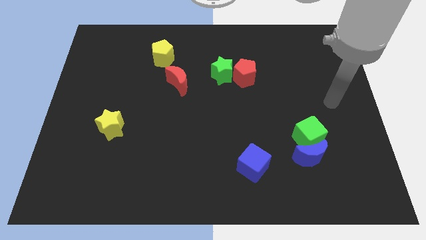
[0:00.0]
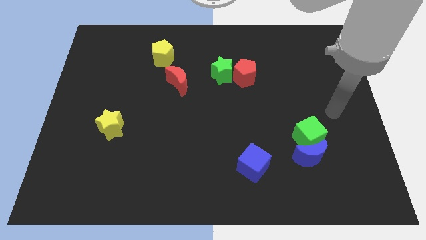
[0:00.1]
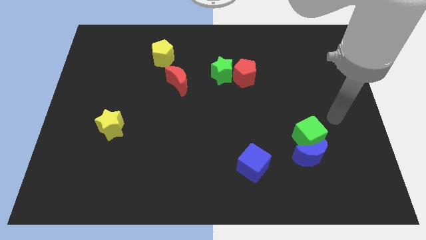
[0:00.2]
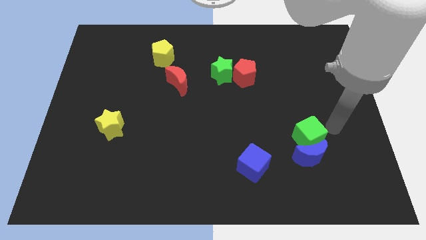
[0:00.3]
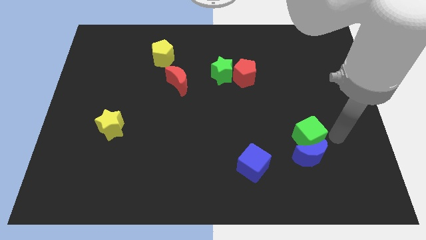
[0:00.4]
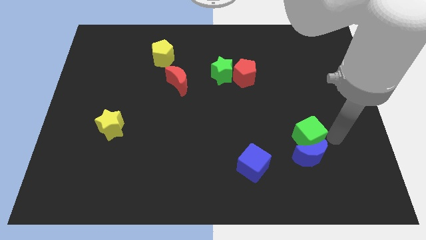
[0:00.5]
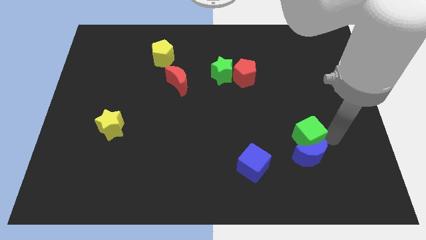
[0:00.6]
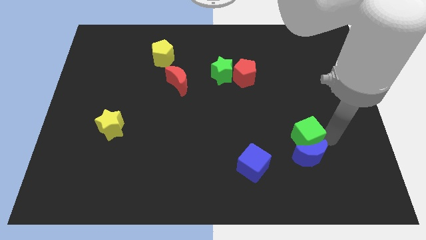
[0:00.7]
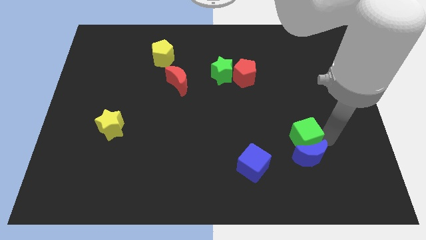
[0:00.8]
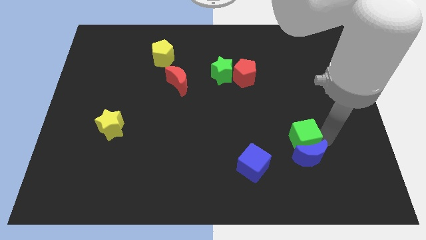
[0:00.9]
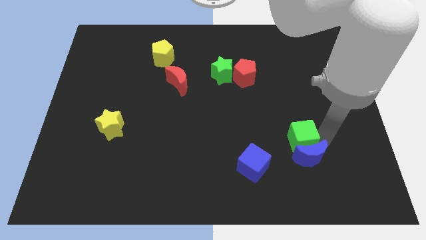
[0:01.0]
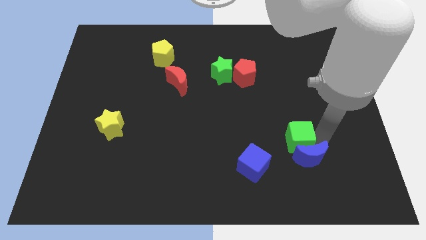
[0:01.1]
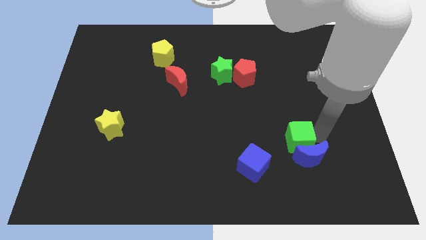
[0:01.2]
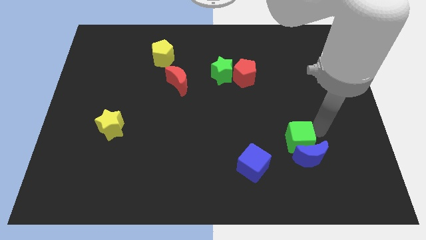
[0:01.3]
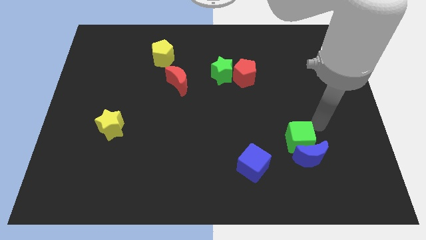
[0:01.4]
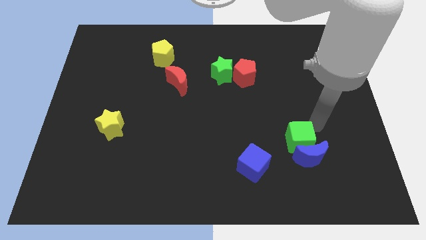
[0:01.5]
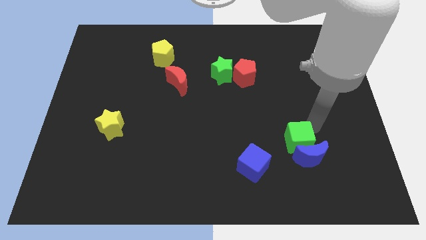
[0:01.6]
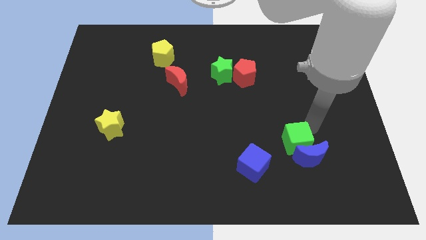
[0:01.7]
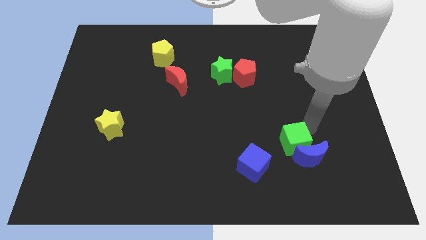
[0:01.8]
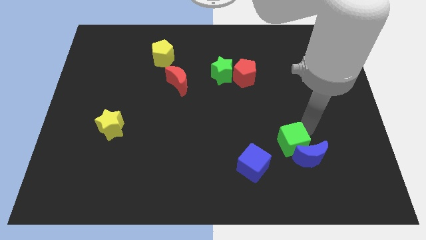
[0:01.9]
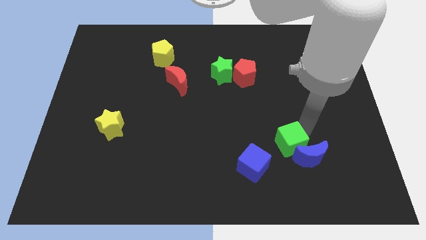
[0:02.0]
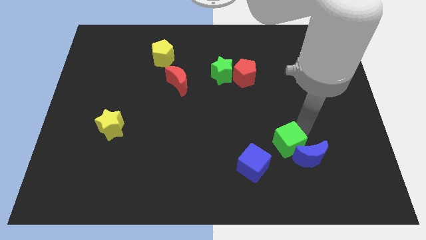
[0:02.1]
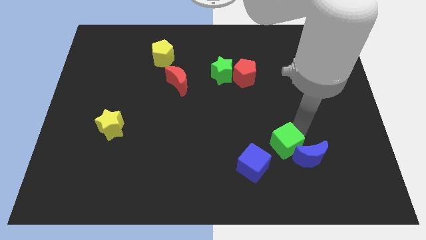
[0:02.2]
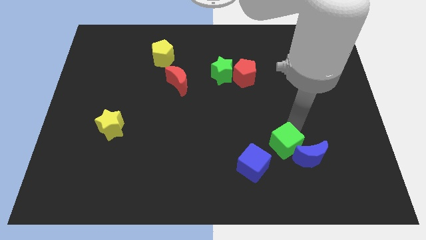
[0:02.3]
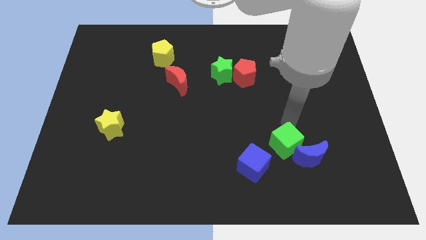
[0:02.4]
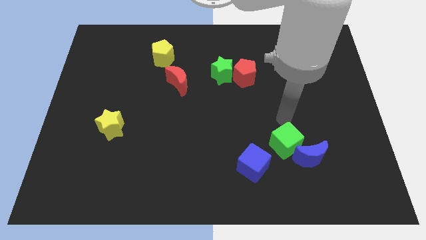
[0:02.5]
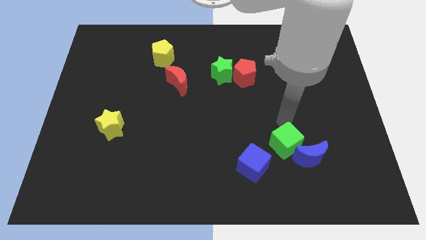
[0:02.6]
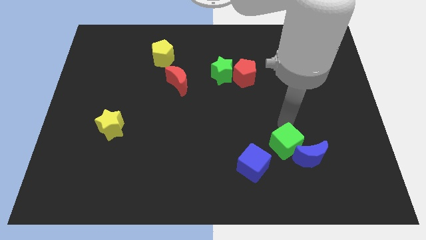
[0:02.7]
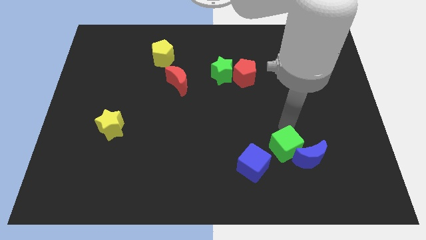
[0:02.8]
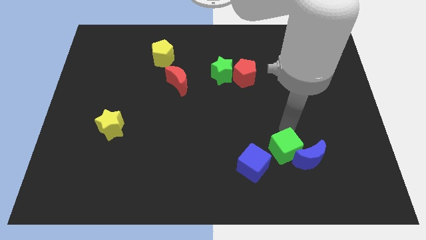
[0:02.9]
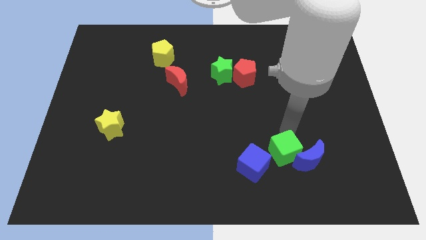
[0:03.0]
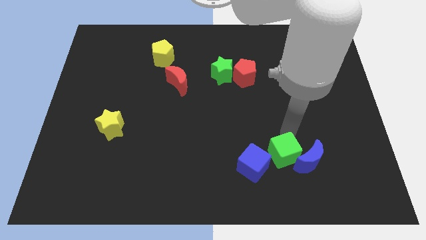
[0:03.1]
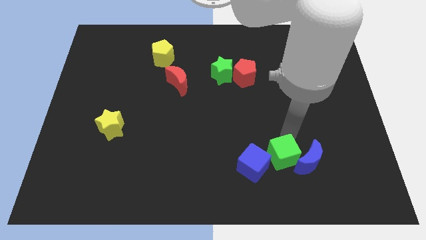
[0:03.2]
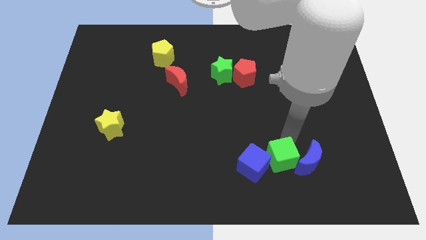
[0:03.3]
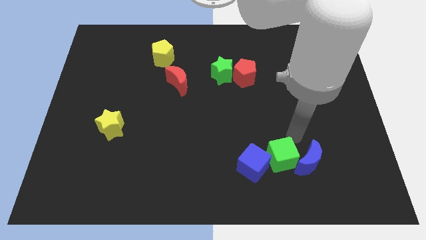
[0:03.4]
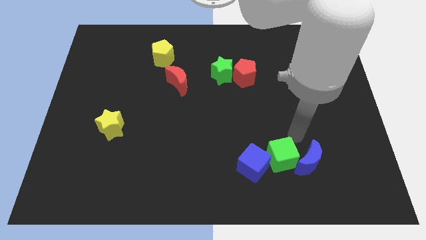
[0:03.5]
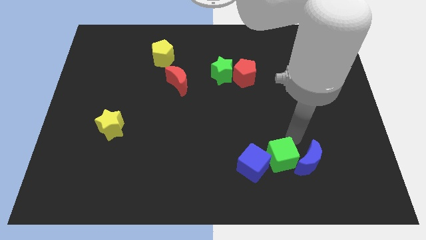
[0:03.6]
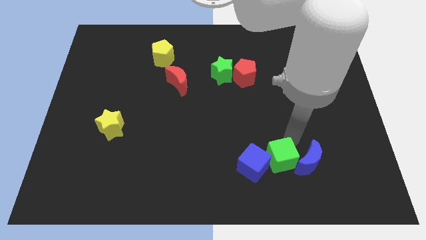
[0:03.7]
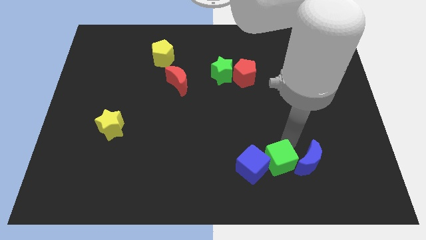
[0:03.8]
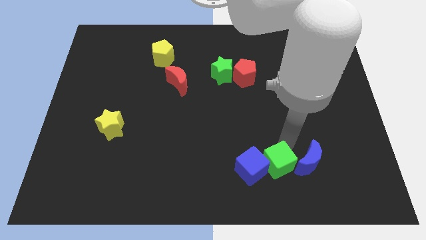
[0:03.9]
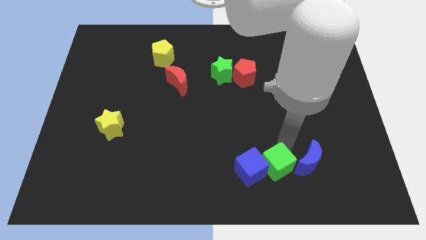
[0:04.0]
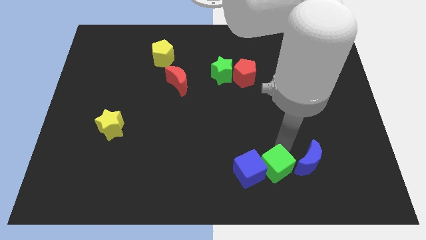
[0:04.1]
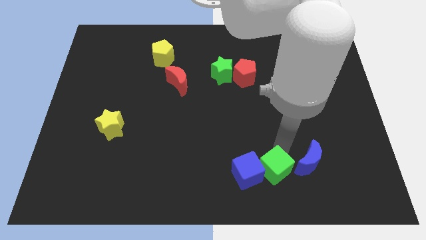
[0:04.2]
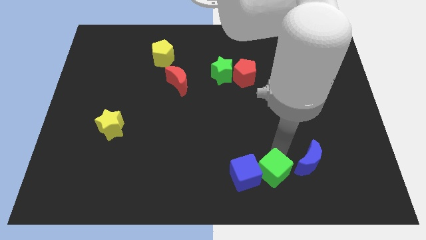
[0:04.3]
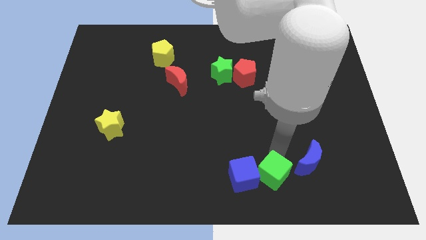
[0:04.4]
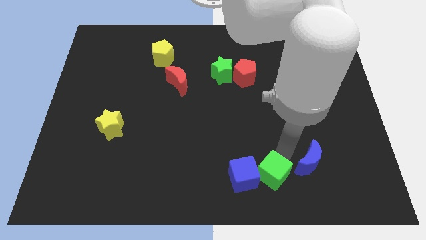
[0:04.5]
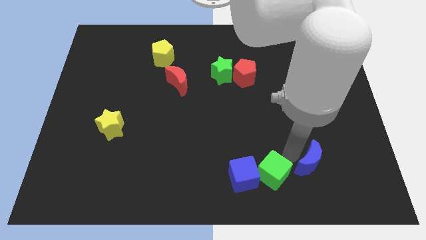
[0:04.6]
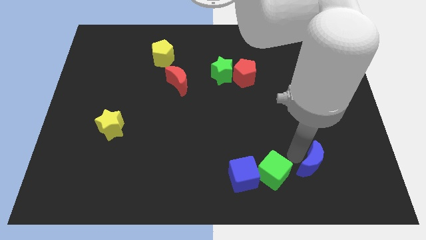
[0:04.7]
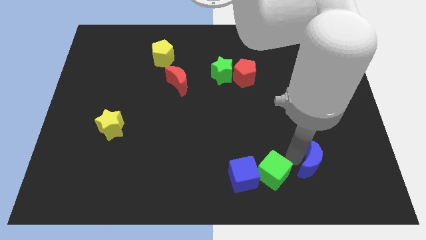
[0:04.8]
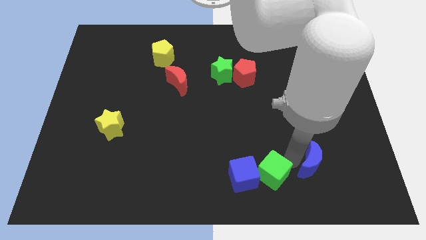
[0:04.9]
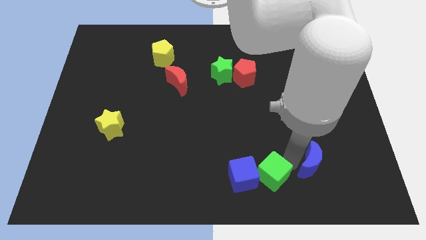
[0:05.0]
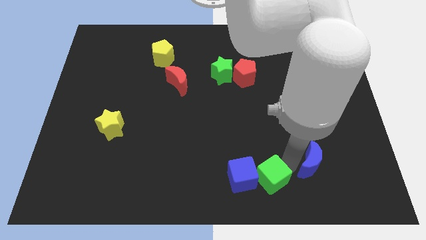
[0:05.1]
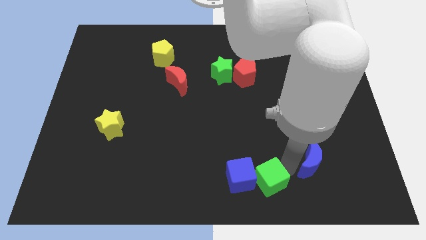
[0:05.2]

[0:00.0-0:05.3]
move the green cube to the bottom side
